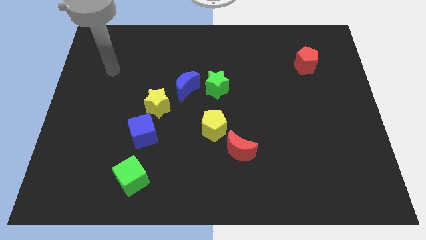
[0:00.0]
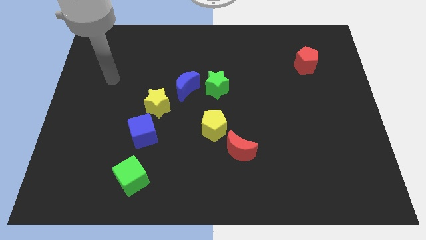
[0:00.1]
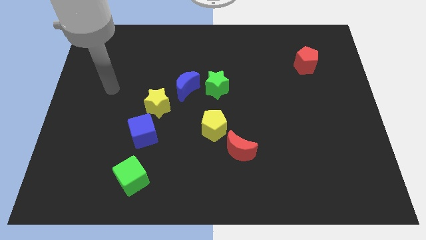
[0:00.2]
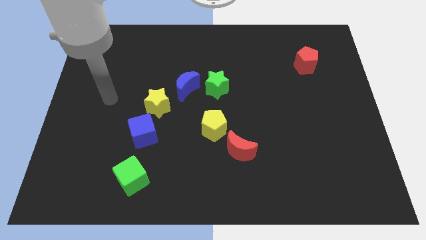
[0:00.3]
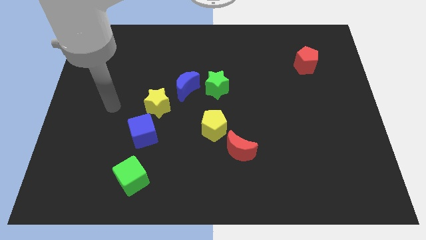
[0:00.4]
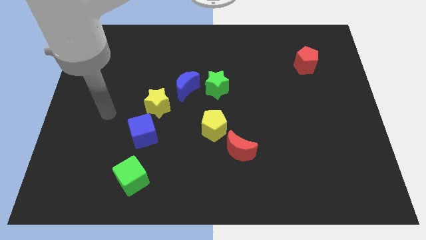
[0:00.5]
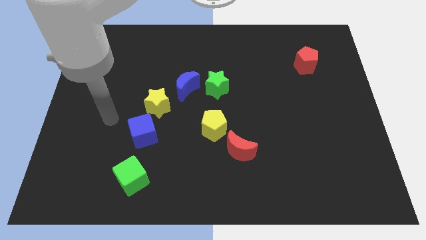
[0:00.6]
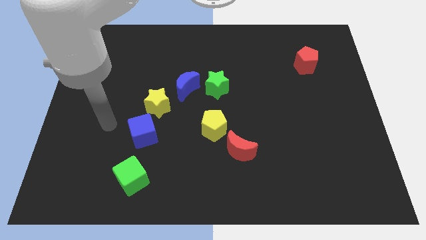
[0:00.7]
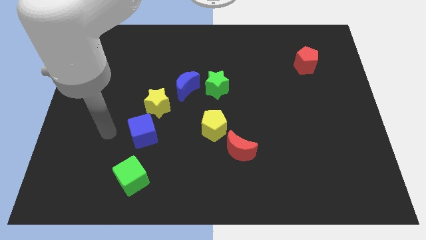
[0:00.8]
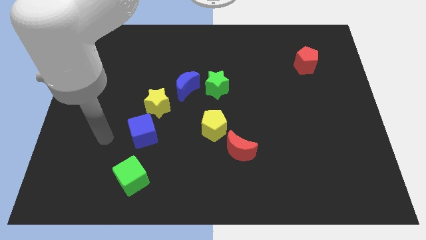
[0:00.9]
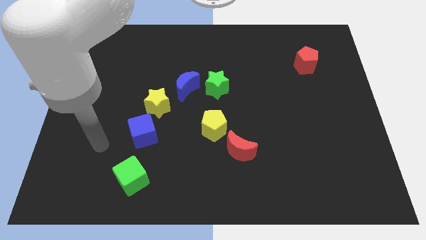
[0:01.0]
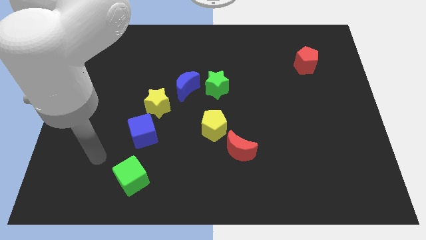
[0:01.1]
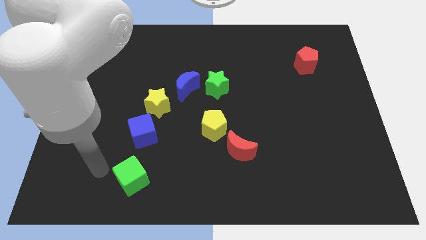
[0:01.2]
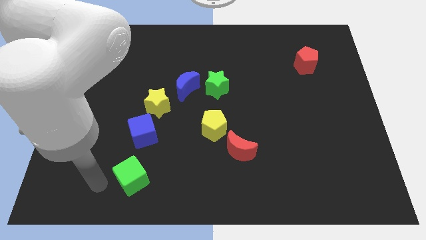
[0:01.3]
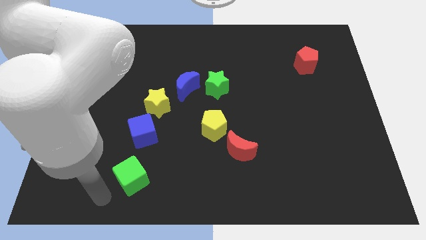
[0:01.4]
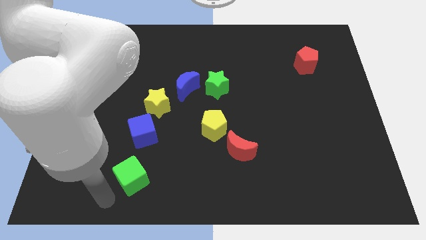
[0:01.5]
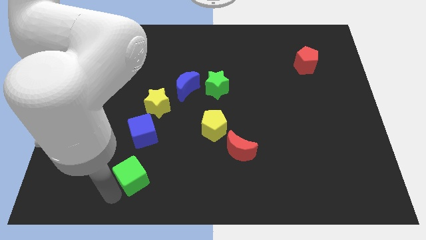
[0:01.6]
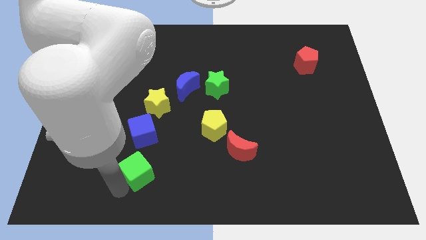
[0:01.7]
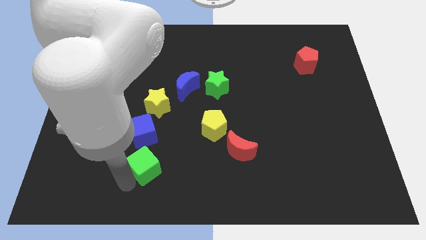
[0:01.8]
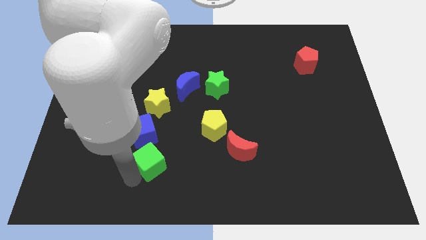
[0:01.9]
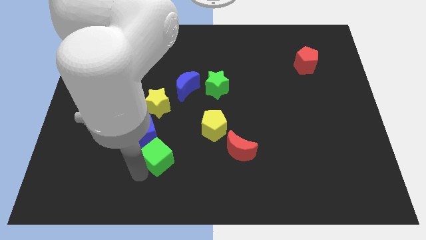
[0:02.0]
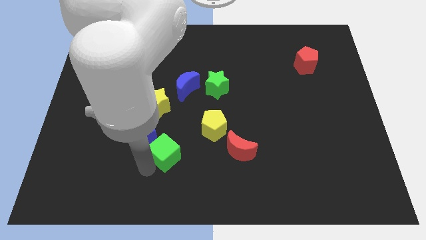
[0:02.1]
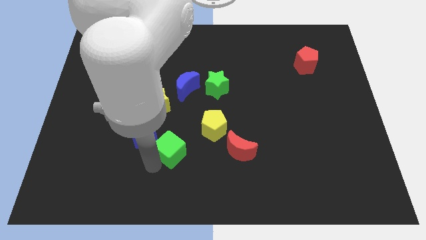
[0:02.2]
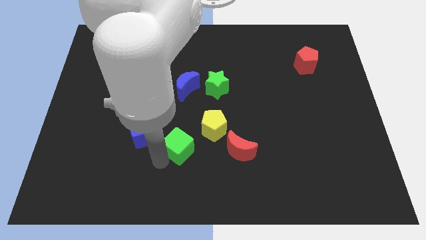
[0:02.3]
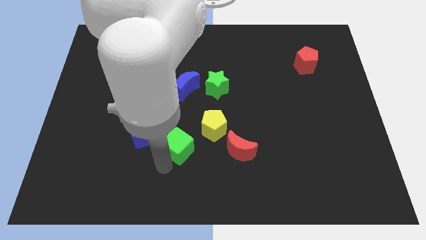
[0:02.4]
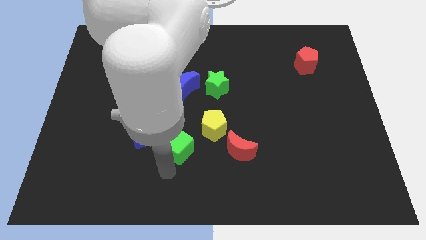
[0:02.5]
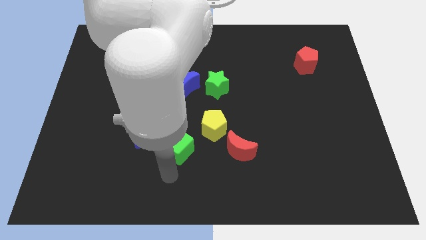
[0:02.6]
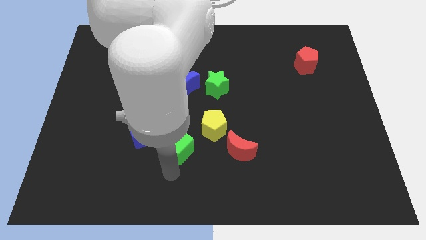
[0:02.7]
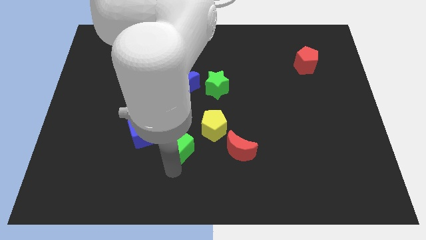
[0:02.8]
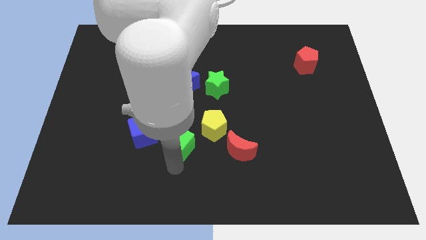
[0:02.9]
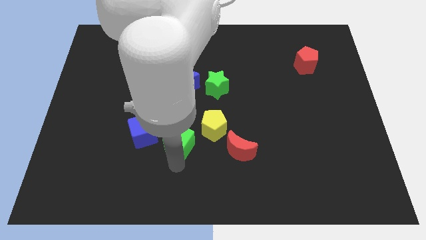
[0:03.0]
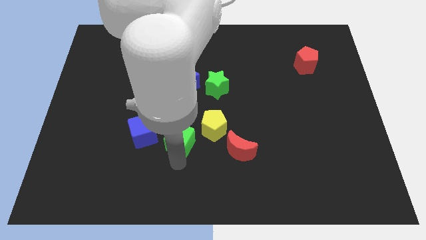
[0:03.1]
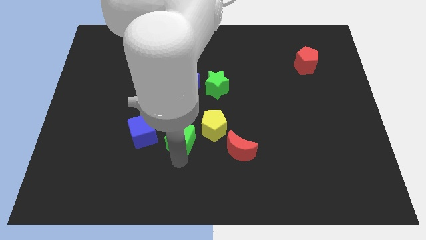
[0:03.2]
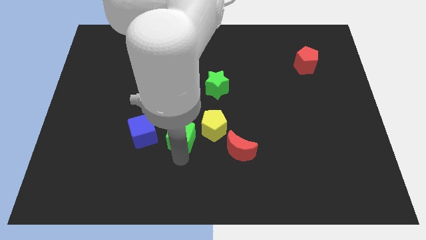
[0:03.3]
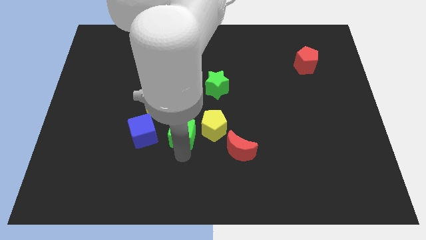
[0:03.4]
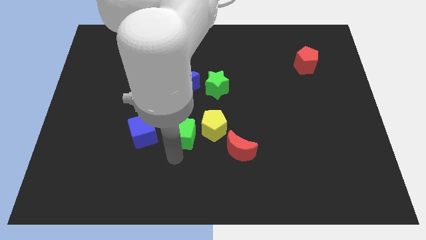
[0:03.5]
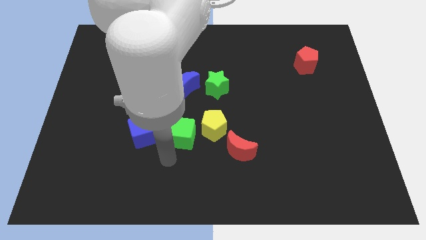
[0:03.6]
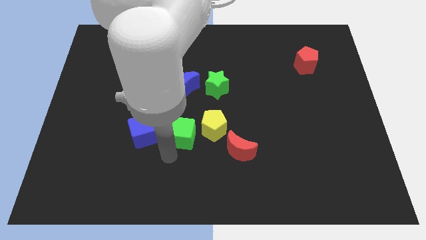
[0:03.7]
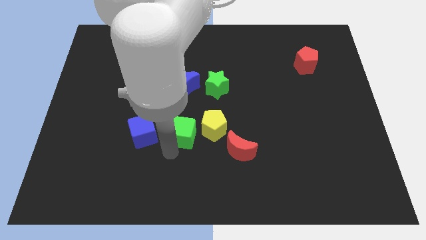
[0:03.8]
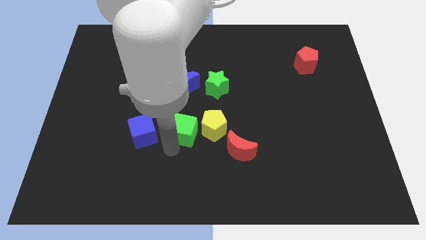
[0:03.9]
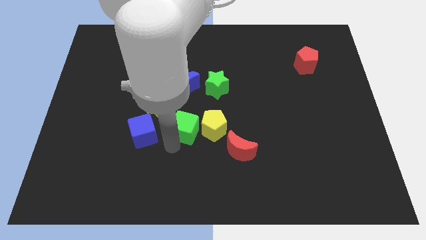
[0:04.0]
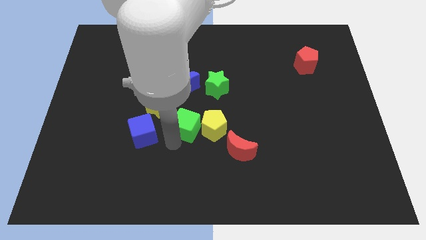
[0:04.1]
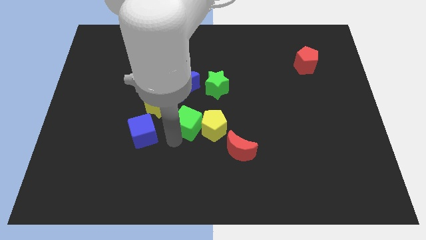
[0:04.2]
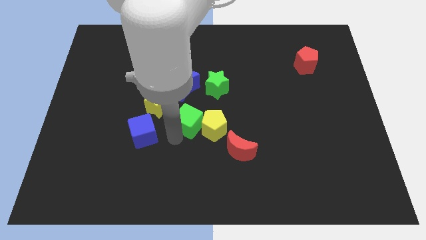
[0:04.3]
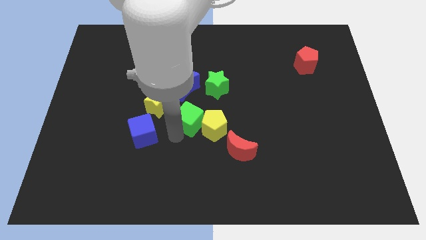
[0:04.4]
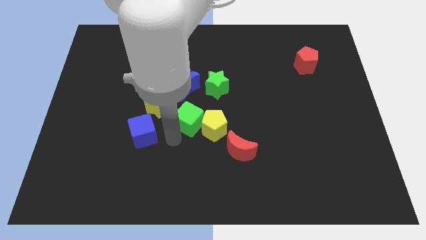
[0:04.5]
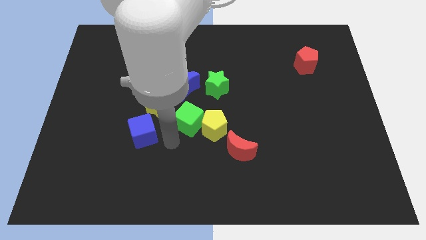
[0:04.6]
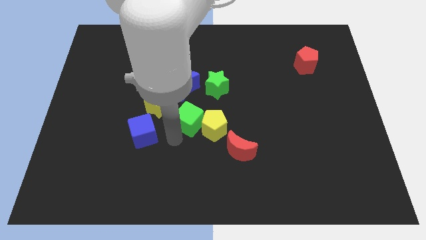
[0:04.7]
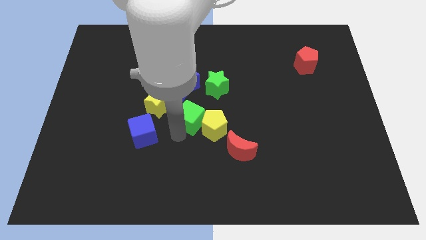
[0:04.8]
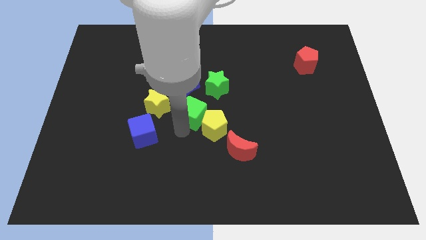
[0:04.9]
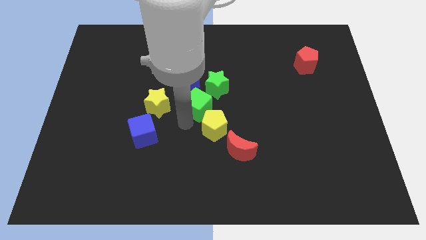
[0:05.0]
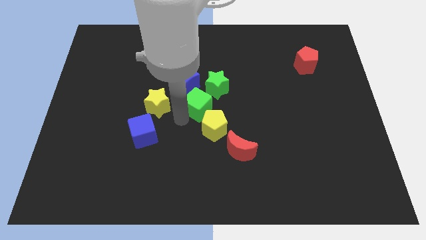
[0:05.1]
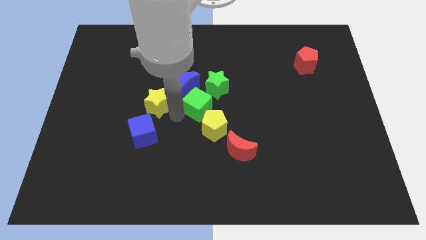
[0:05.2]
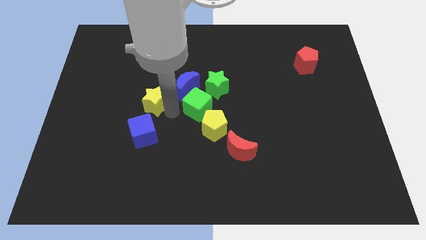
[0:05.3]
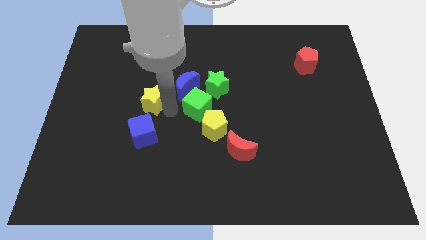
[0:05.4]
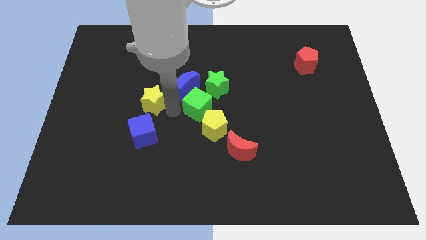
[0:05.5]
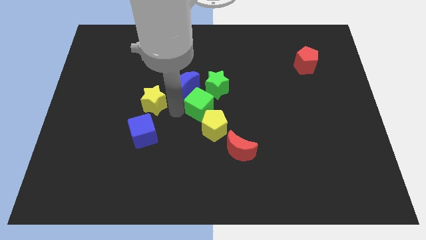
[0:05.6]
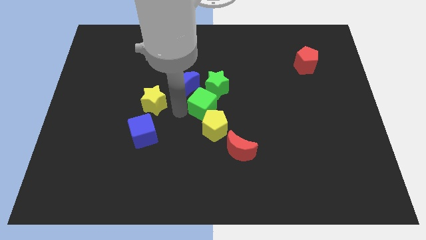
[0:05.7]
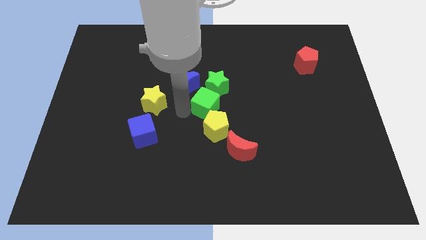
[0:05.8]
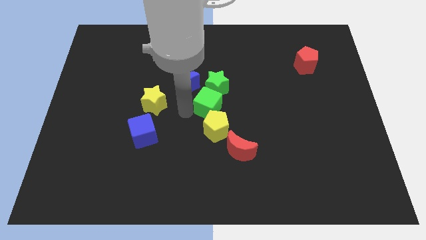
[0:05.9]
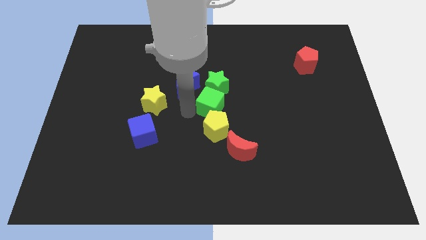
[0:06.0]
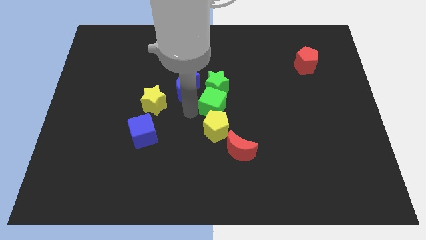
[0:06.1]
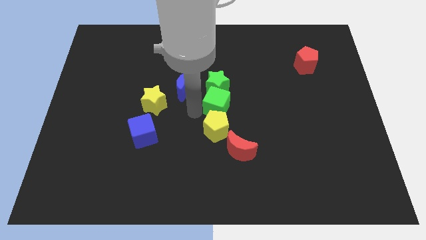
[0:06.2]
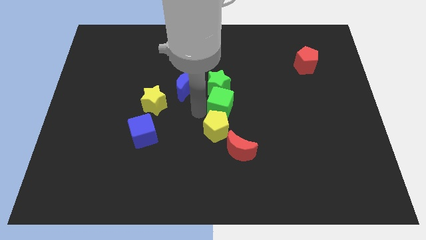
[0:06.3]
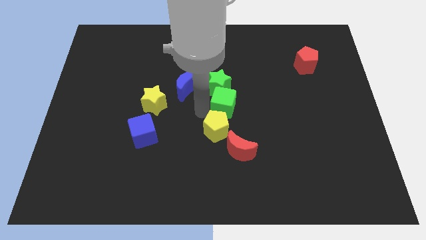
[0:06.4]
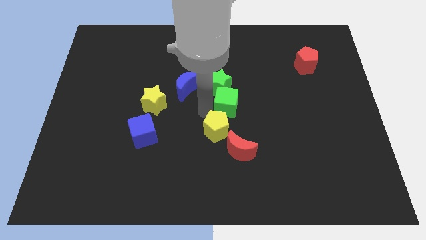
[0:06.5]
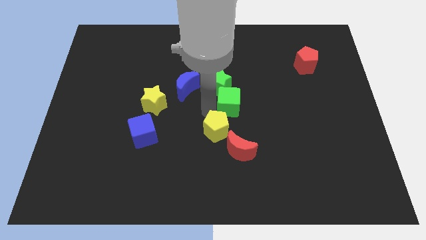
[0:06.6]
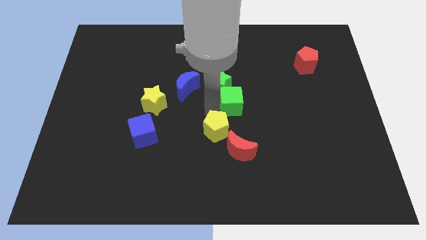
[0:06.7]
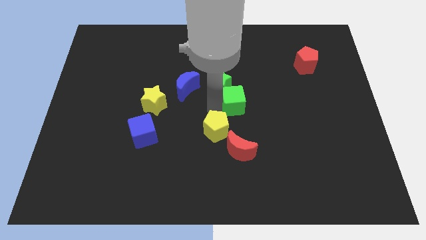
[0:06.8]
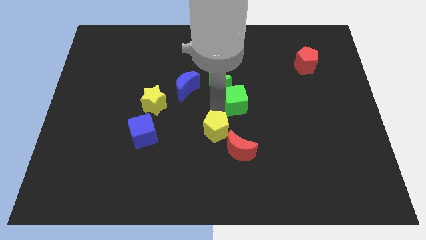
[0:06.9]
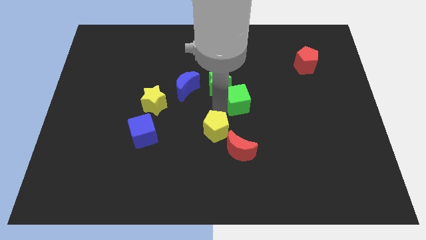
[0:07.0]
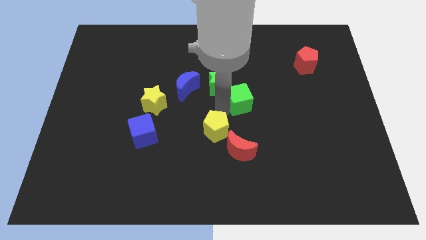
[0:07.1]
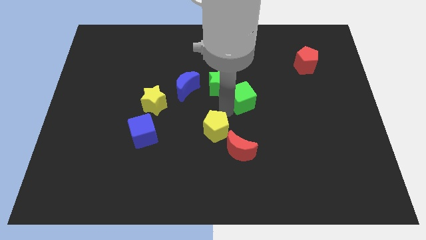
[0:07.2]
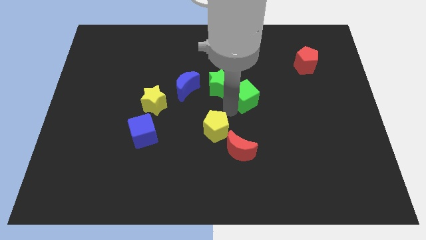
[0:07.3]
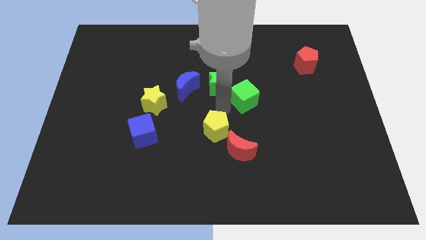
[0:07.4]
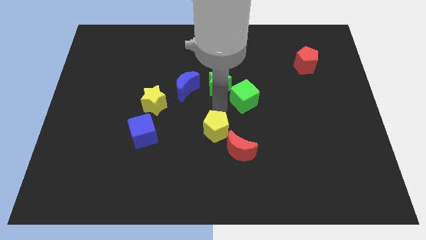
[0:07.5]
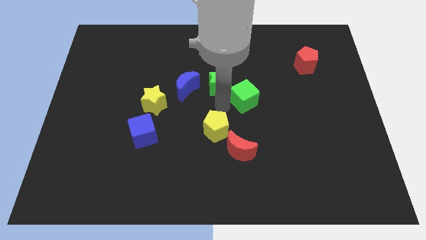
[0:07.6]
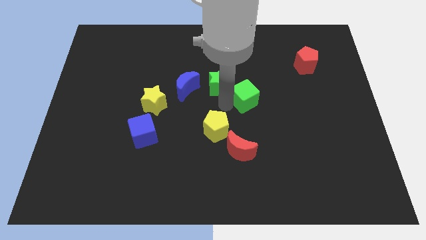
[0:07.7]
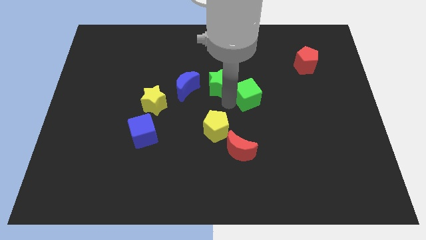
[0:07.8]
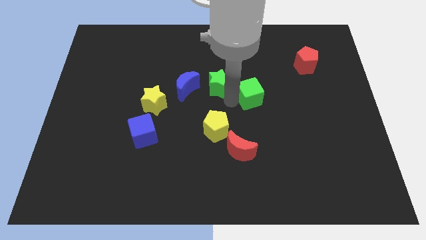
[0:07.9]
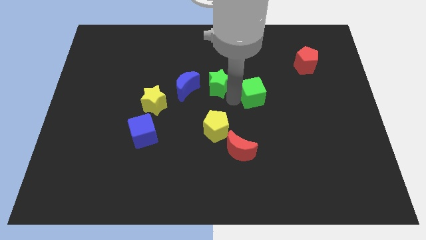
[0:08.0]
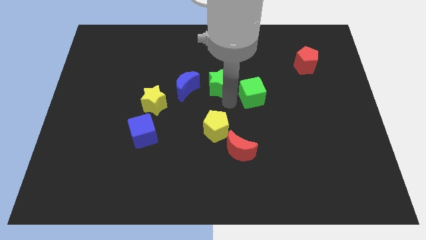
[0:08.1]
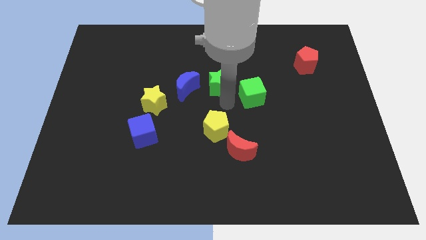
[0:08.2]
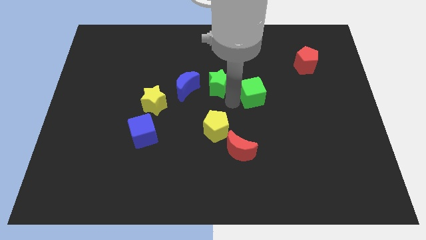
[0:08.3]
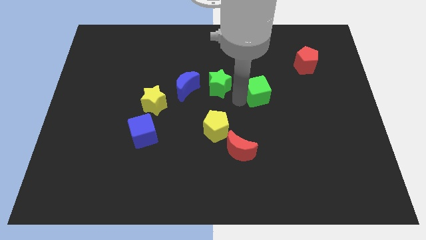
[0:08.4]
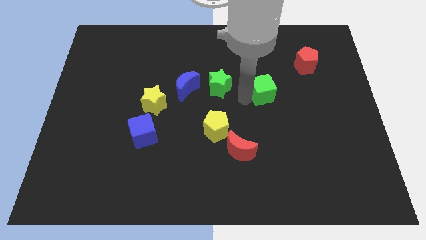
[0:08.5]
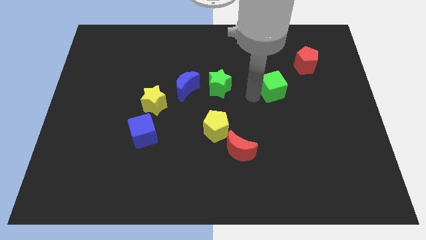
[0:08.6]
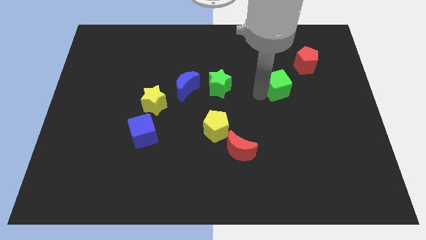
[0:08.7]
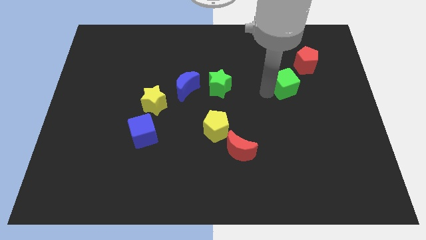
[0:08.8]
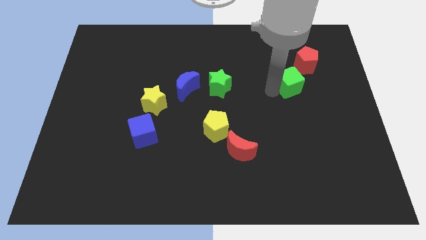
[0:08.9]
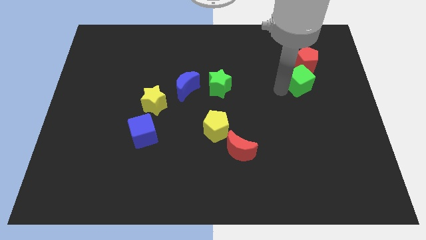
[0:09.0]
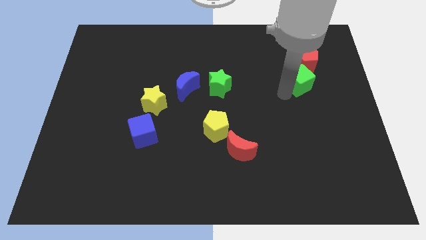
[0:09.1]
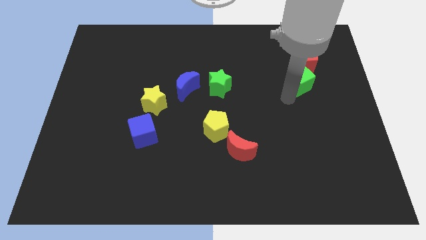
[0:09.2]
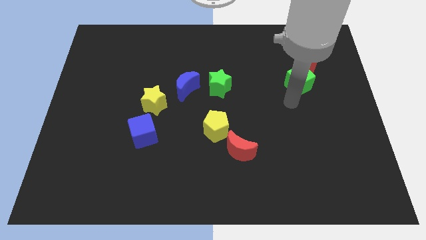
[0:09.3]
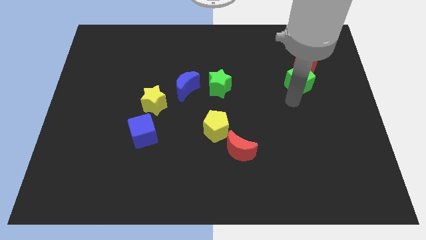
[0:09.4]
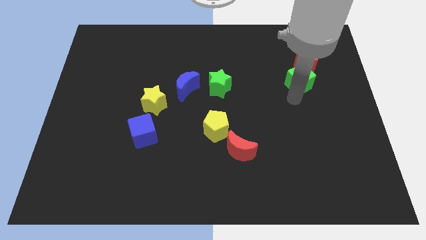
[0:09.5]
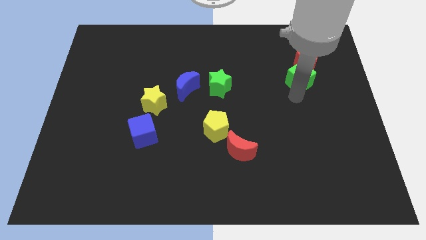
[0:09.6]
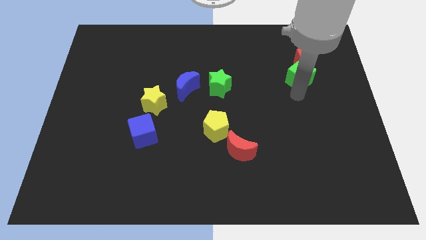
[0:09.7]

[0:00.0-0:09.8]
put the green cube next to the red pentagon
